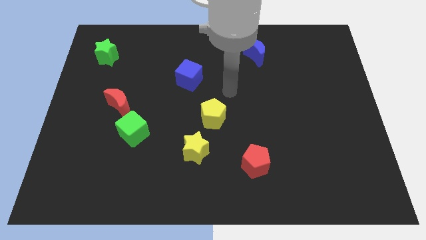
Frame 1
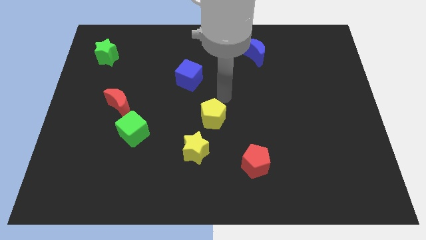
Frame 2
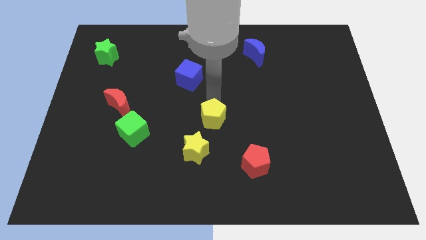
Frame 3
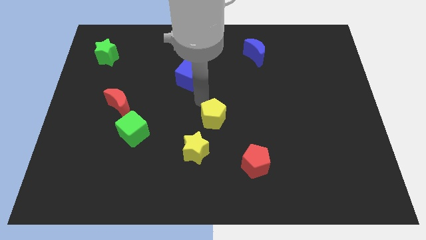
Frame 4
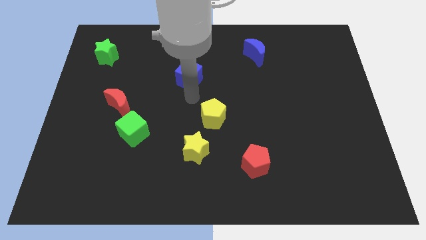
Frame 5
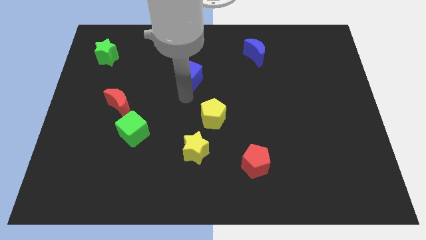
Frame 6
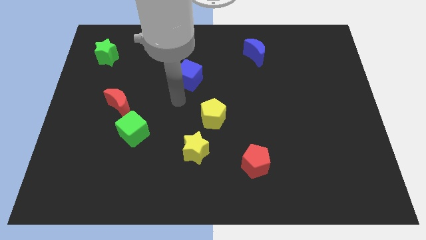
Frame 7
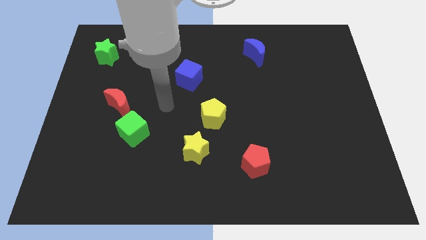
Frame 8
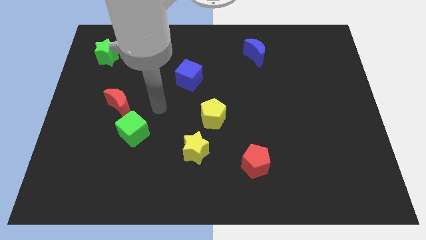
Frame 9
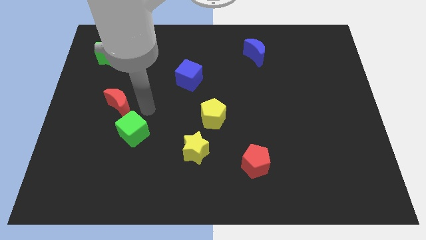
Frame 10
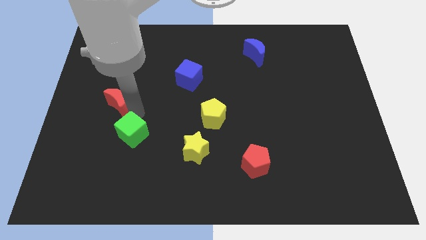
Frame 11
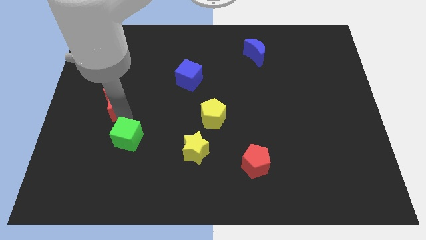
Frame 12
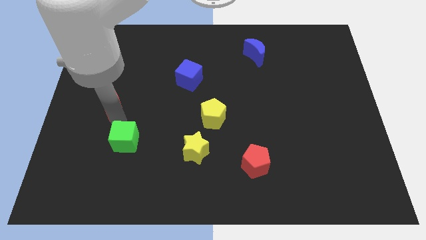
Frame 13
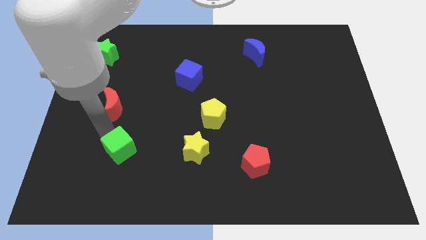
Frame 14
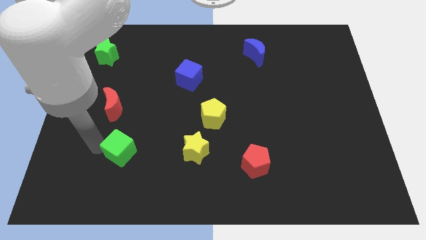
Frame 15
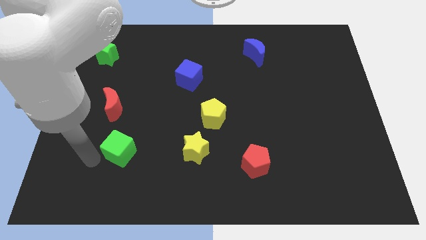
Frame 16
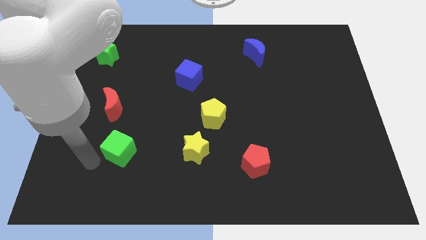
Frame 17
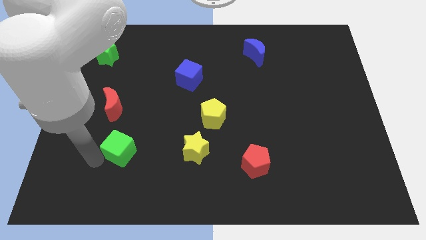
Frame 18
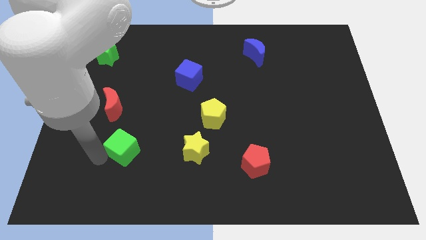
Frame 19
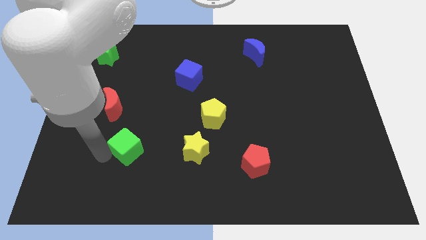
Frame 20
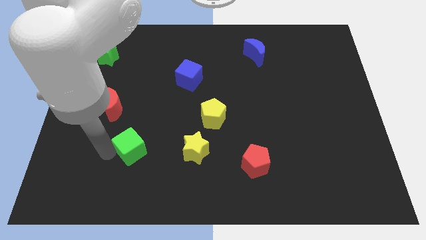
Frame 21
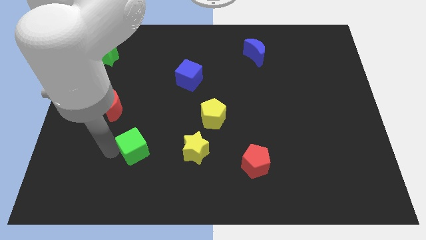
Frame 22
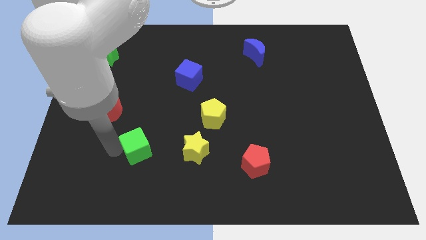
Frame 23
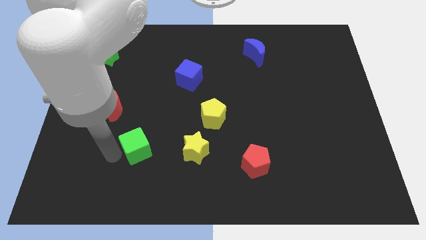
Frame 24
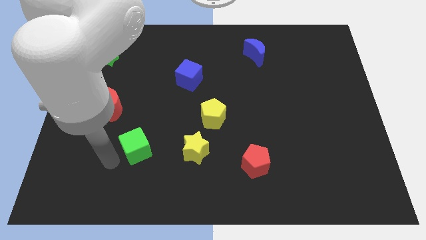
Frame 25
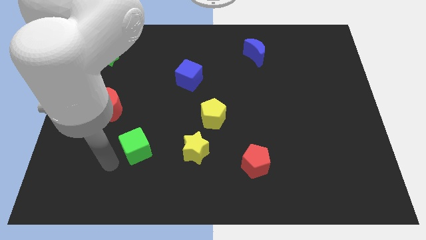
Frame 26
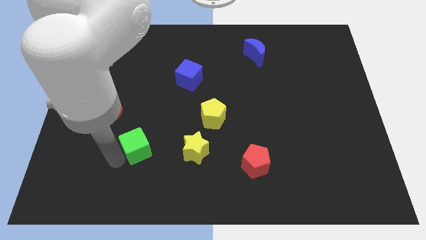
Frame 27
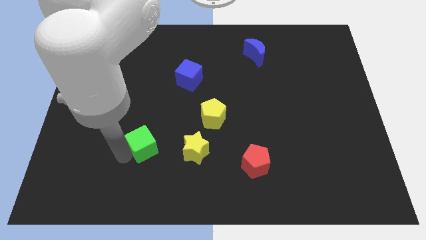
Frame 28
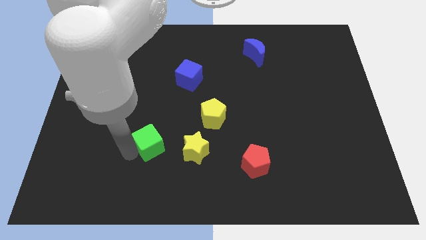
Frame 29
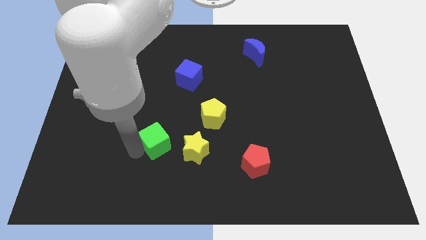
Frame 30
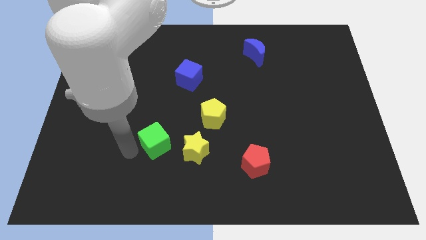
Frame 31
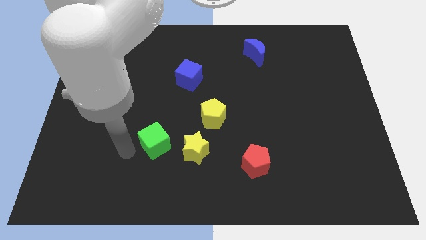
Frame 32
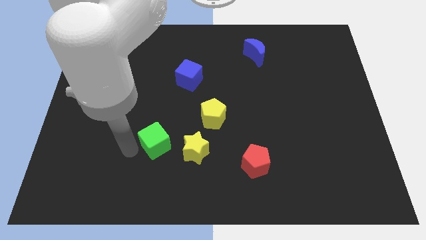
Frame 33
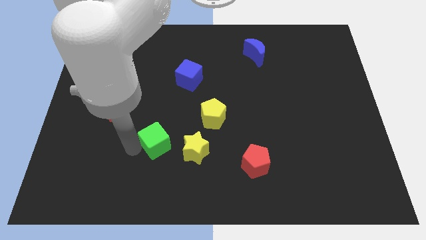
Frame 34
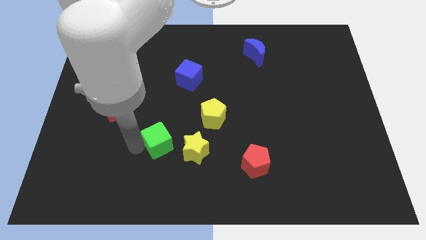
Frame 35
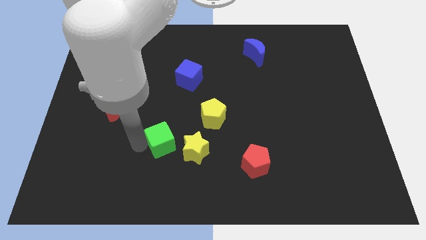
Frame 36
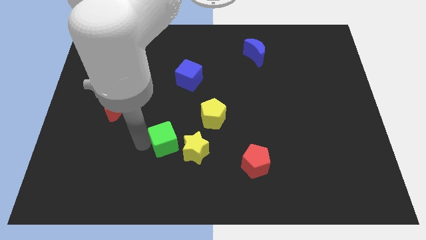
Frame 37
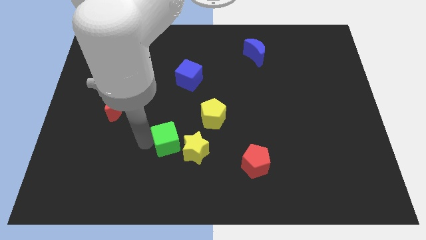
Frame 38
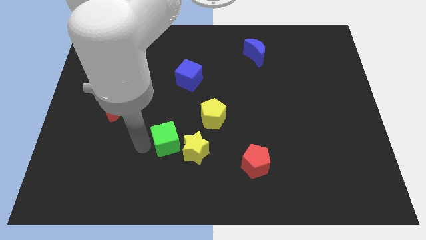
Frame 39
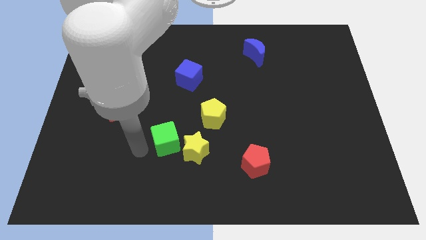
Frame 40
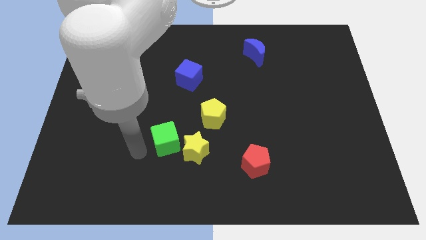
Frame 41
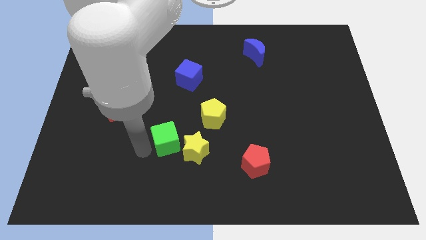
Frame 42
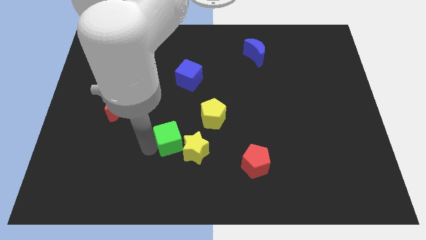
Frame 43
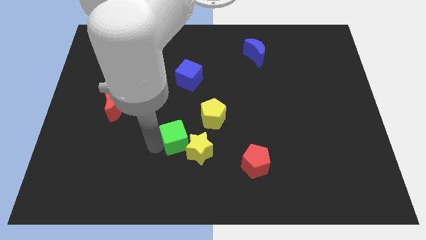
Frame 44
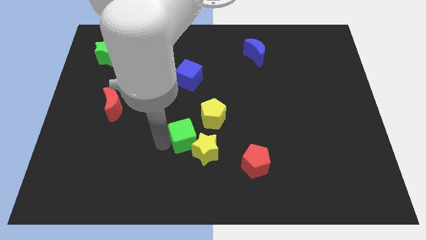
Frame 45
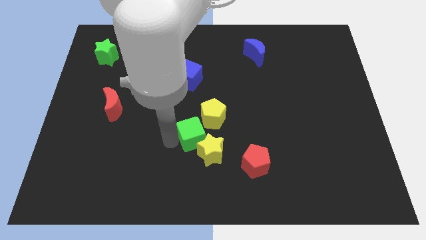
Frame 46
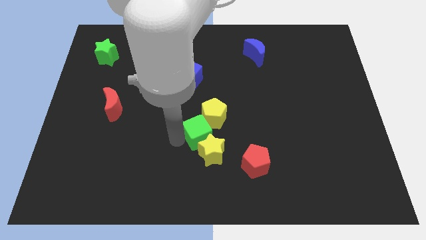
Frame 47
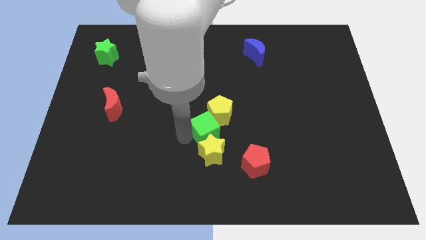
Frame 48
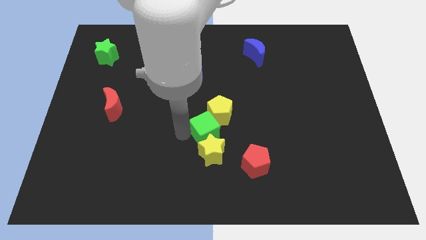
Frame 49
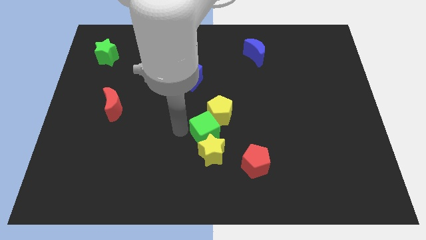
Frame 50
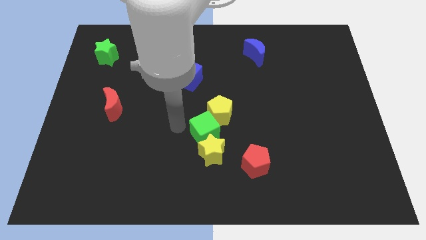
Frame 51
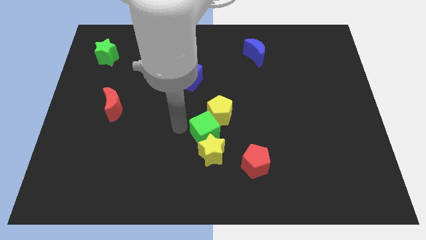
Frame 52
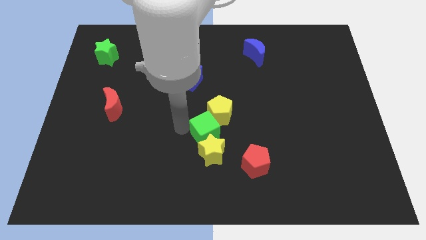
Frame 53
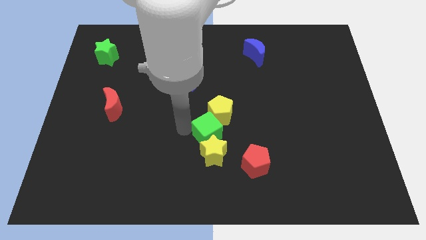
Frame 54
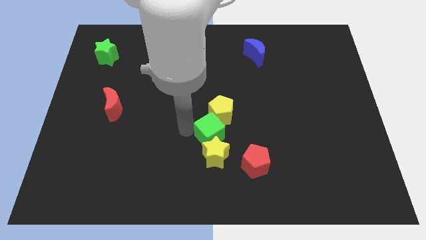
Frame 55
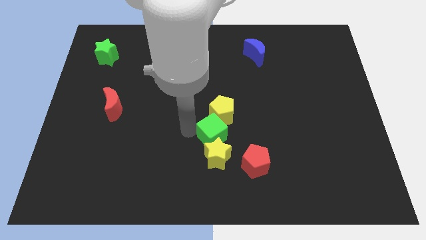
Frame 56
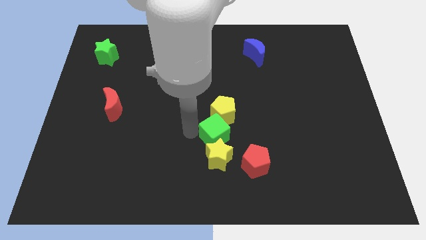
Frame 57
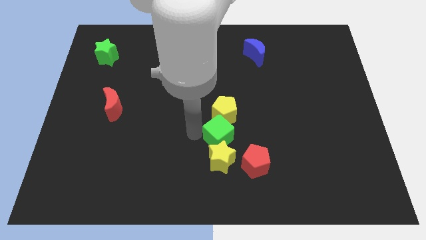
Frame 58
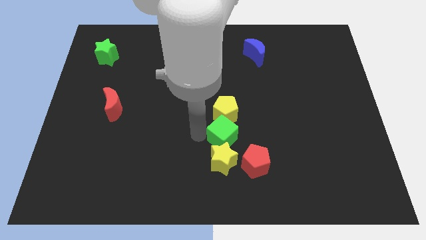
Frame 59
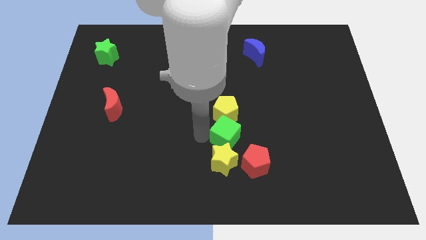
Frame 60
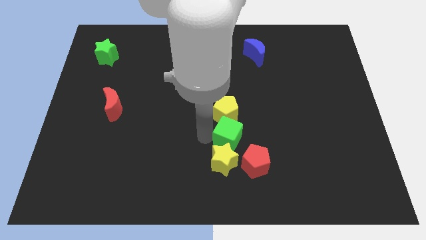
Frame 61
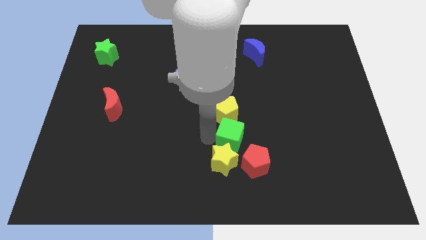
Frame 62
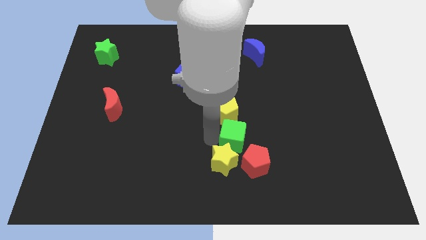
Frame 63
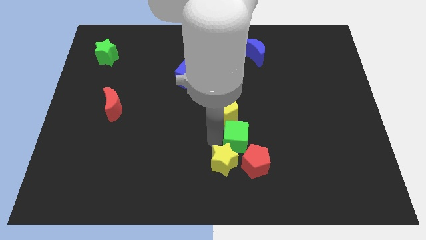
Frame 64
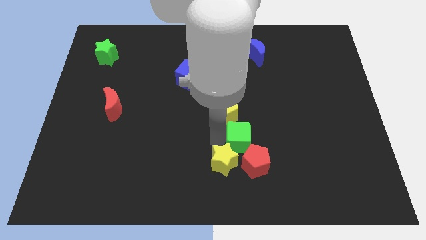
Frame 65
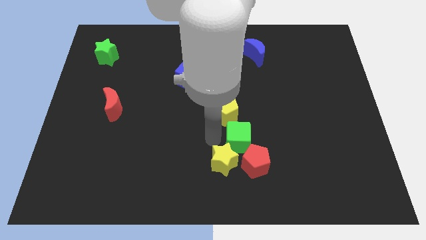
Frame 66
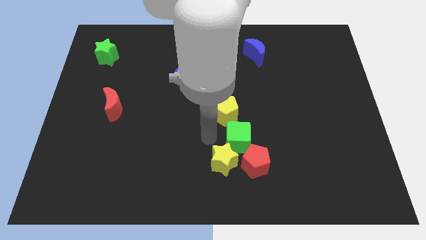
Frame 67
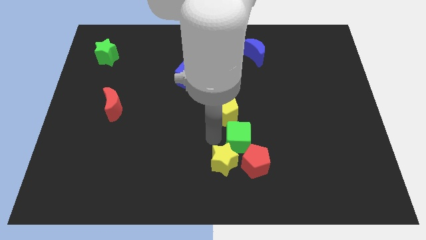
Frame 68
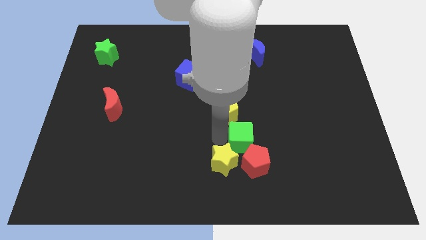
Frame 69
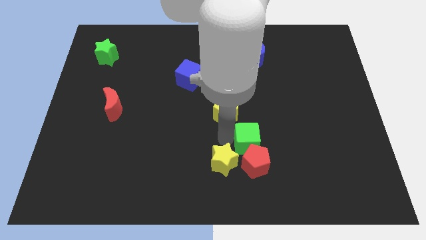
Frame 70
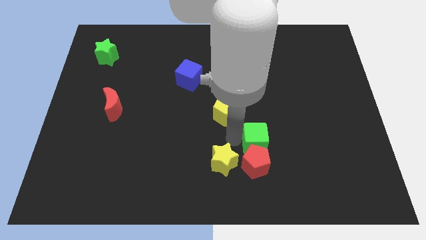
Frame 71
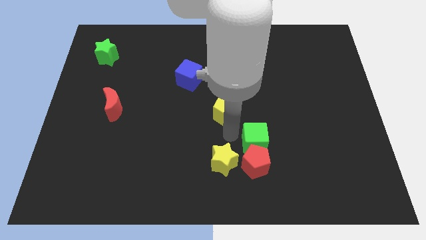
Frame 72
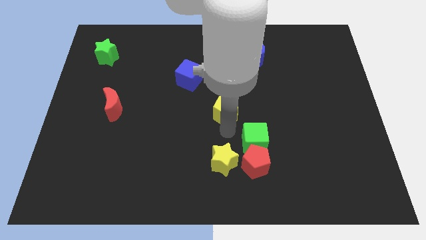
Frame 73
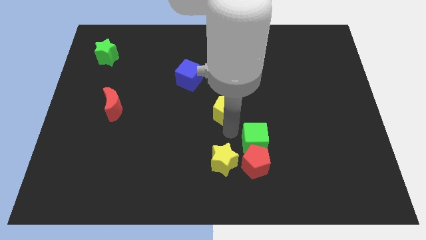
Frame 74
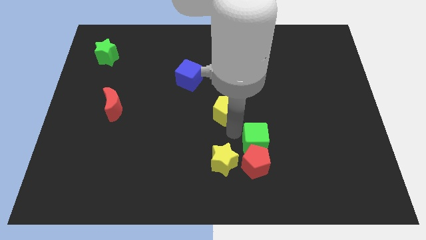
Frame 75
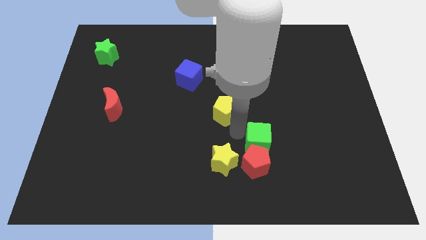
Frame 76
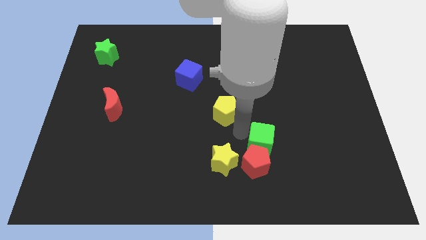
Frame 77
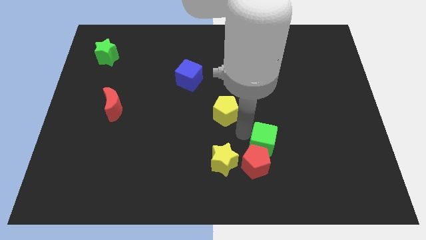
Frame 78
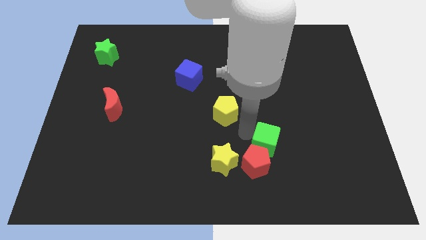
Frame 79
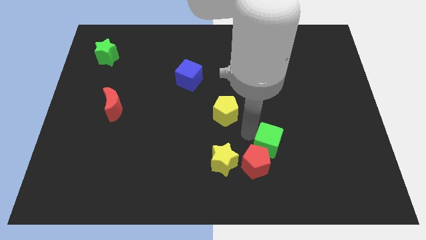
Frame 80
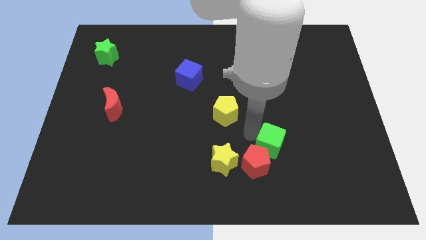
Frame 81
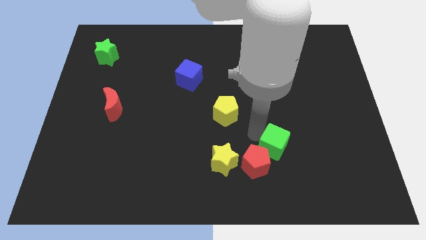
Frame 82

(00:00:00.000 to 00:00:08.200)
slide the green cube to the right side of the red pentagon
